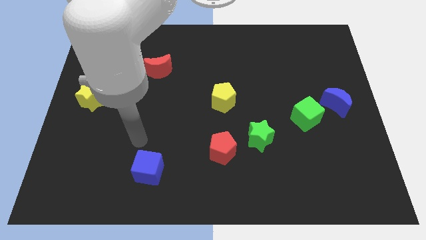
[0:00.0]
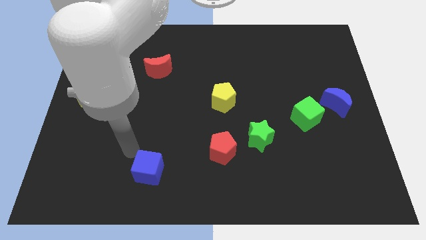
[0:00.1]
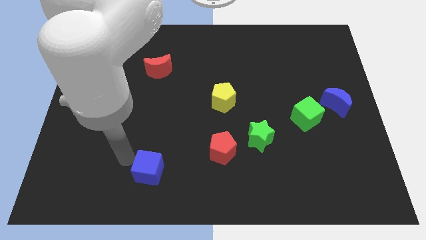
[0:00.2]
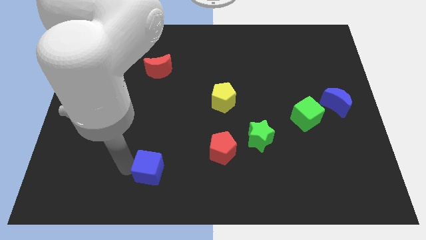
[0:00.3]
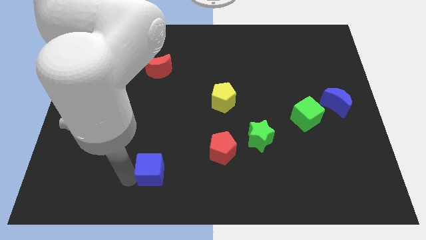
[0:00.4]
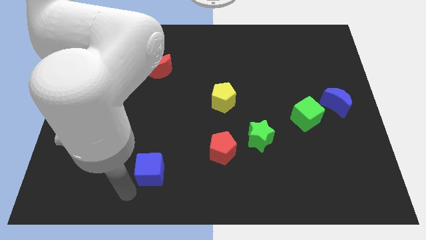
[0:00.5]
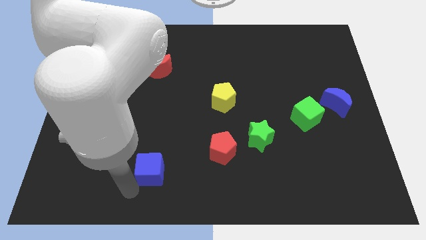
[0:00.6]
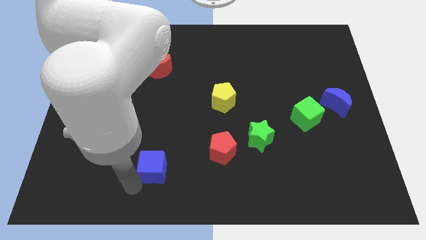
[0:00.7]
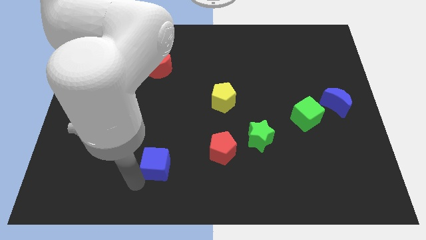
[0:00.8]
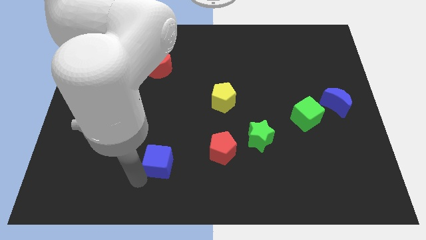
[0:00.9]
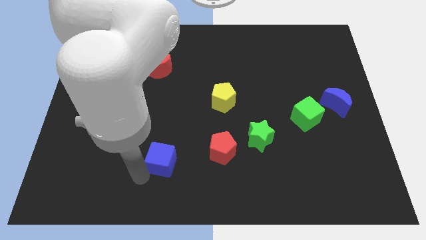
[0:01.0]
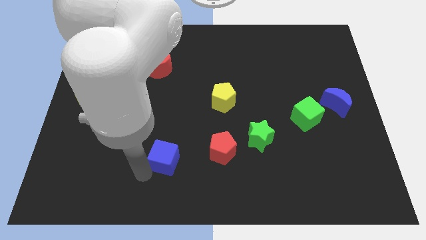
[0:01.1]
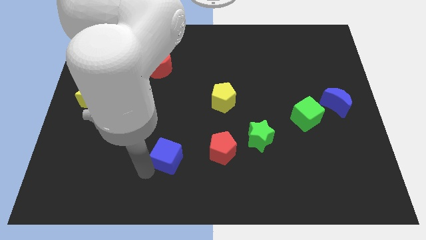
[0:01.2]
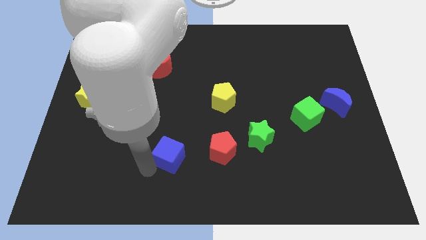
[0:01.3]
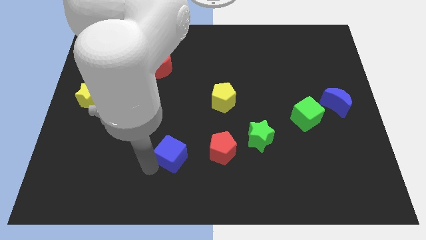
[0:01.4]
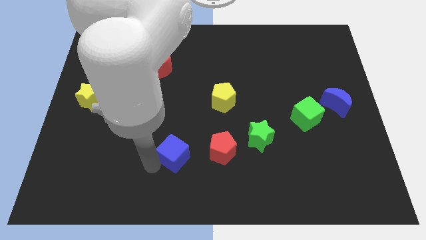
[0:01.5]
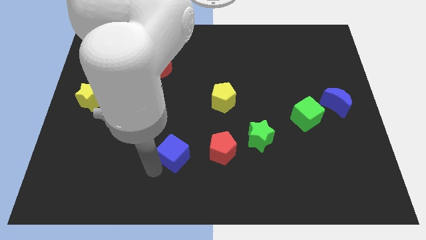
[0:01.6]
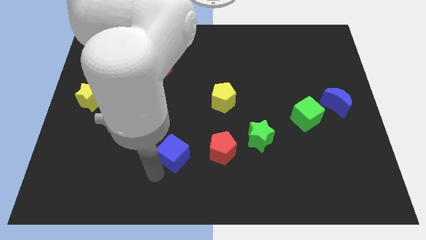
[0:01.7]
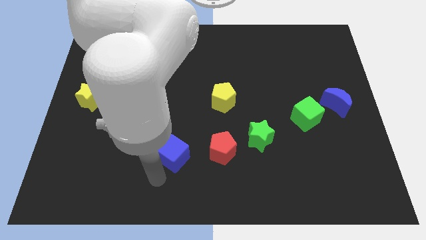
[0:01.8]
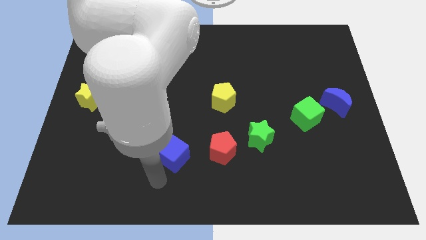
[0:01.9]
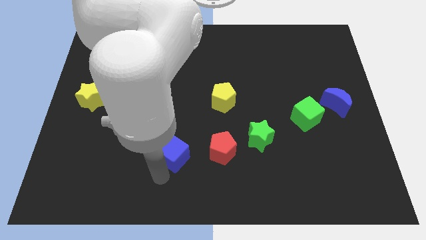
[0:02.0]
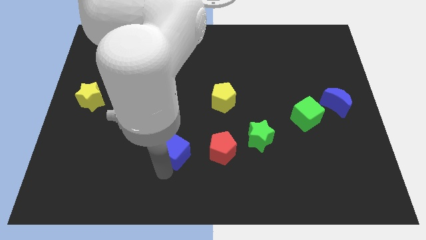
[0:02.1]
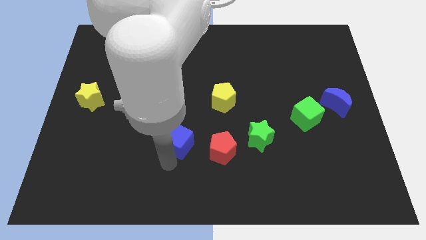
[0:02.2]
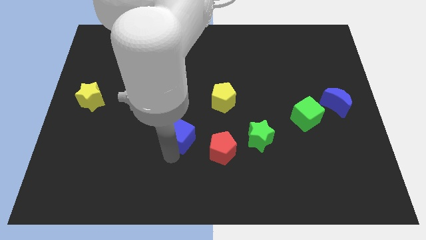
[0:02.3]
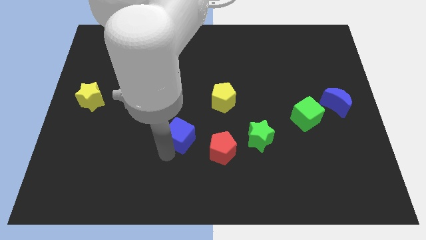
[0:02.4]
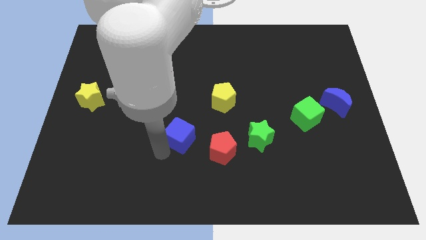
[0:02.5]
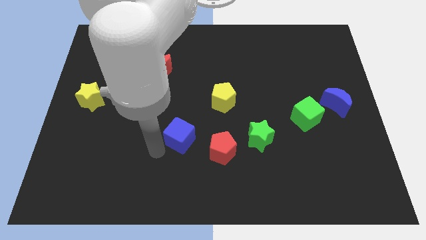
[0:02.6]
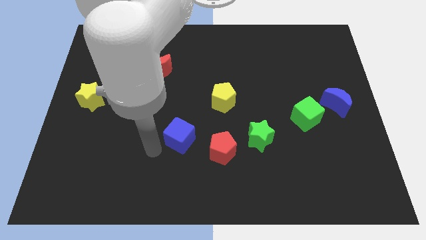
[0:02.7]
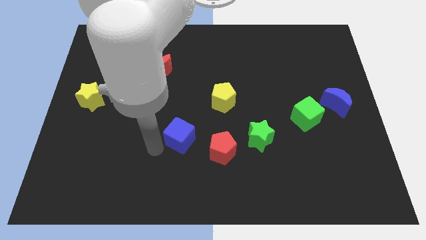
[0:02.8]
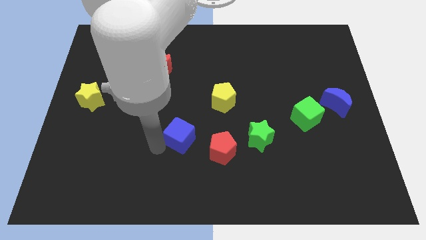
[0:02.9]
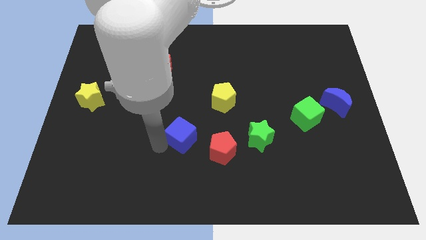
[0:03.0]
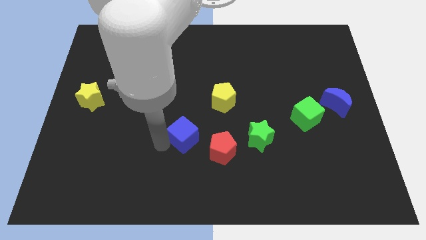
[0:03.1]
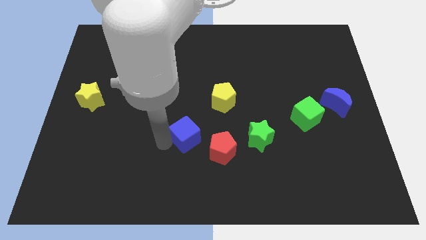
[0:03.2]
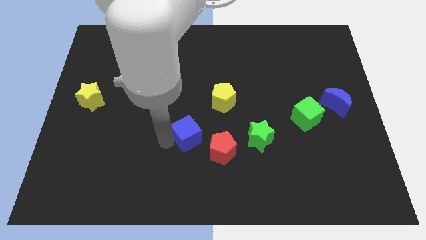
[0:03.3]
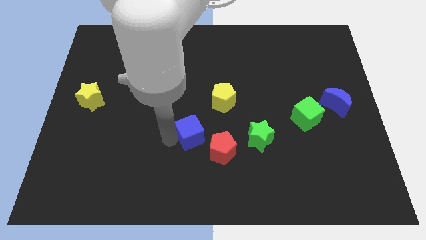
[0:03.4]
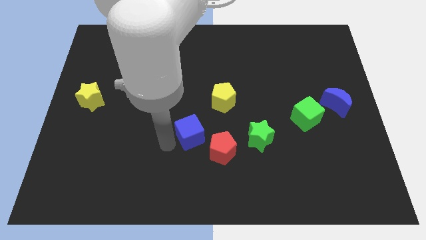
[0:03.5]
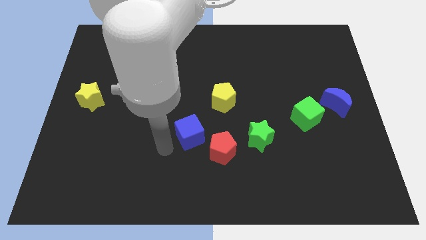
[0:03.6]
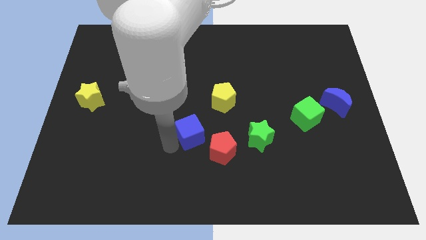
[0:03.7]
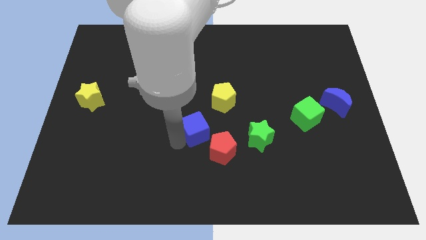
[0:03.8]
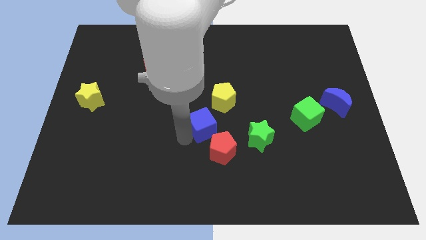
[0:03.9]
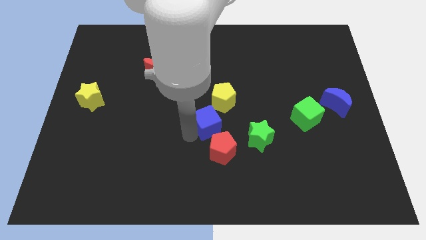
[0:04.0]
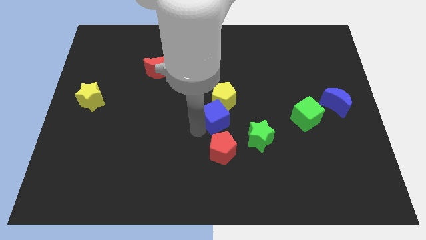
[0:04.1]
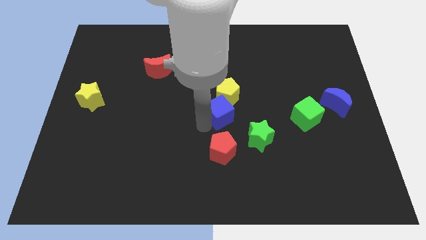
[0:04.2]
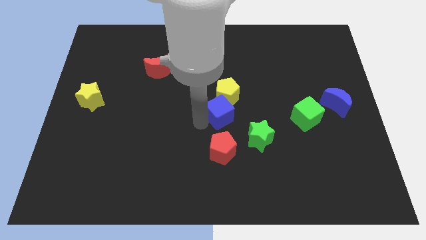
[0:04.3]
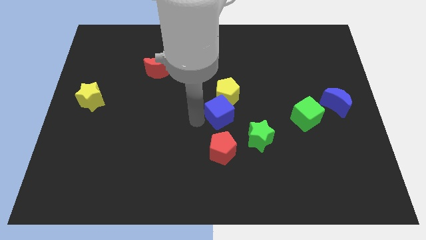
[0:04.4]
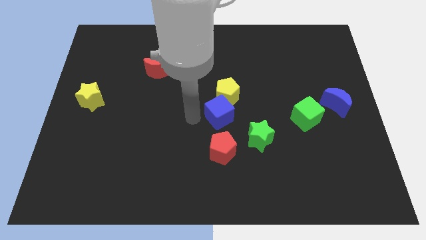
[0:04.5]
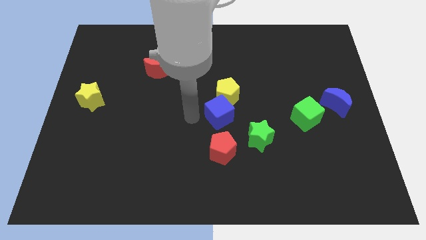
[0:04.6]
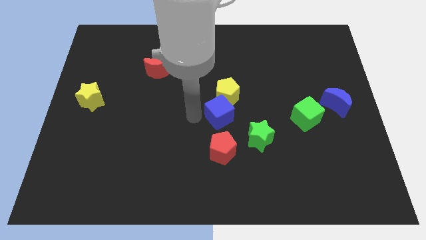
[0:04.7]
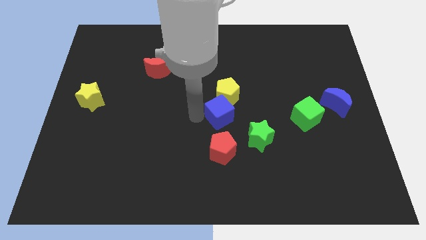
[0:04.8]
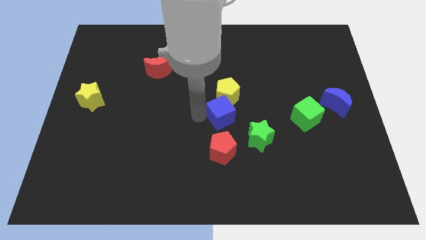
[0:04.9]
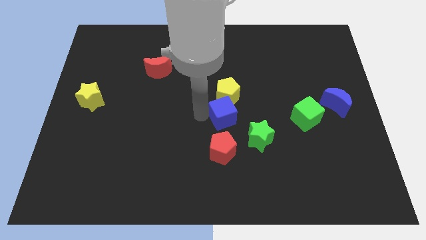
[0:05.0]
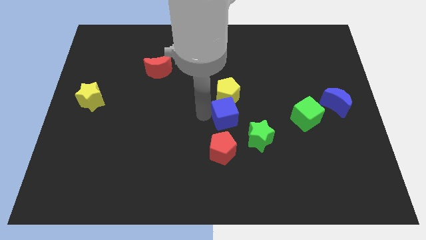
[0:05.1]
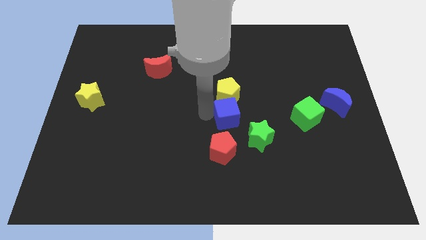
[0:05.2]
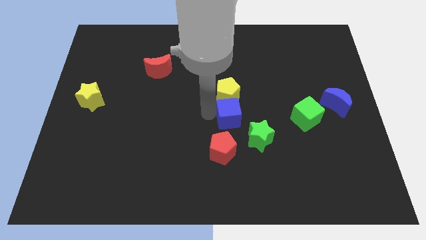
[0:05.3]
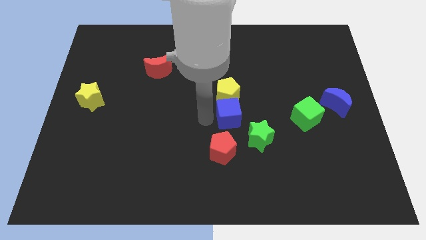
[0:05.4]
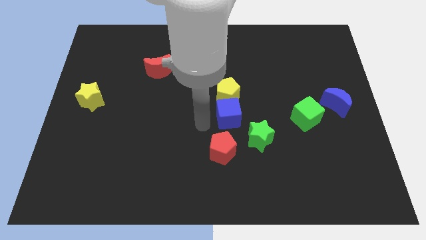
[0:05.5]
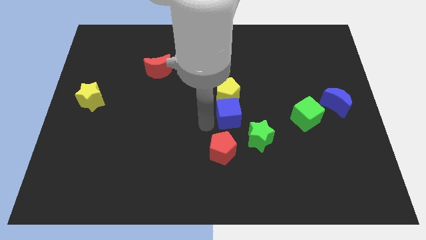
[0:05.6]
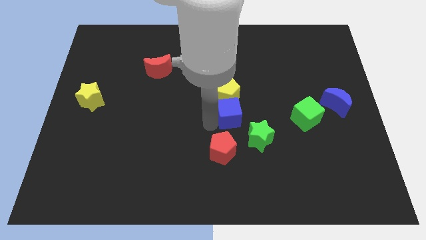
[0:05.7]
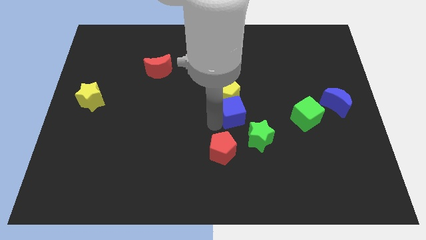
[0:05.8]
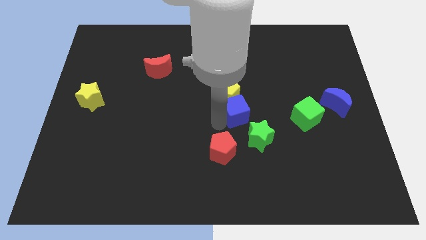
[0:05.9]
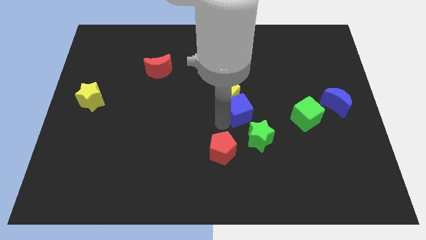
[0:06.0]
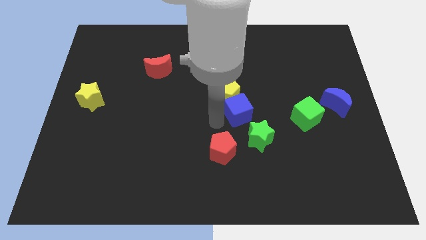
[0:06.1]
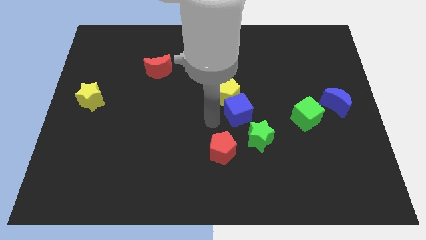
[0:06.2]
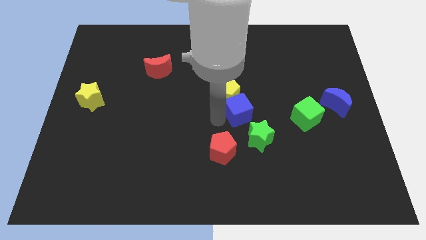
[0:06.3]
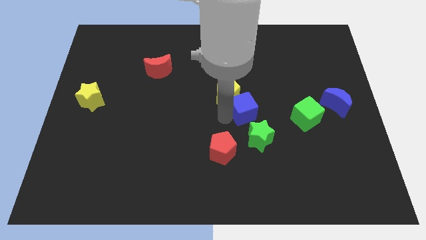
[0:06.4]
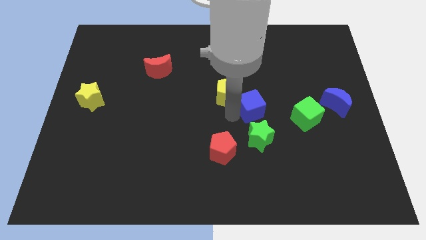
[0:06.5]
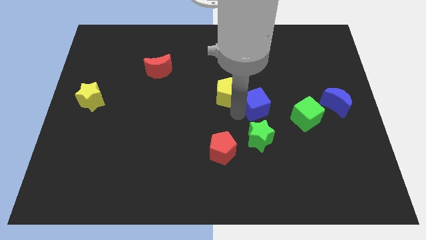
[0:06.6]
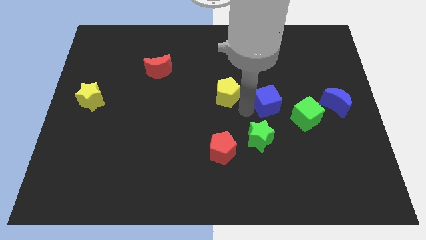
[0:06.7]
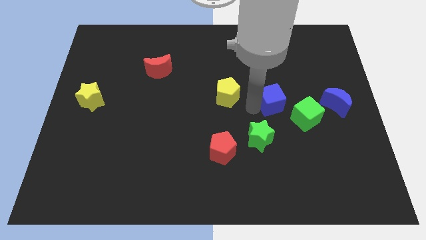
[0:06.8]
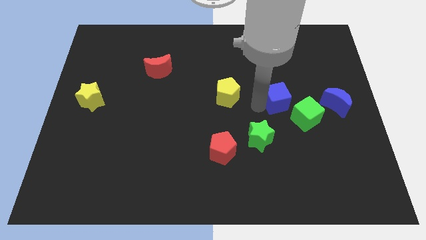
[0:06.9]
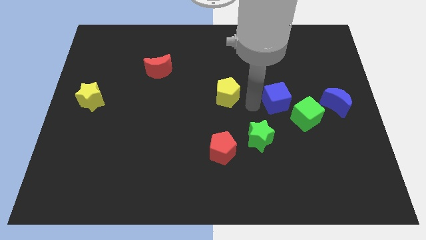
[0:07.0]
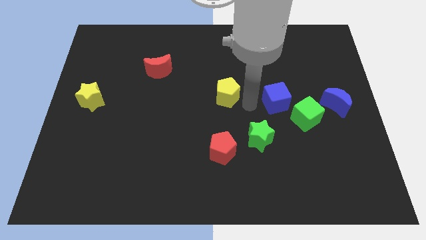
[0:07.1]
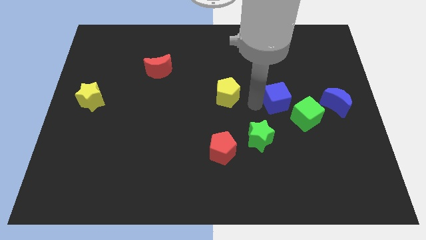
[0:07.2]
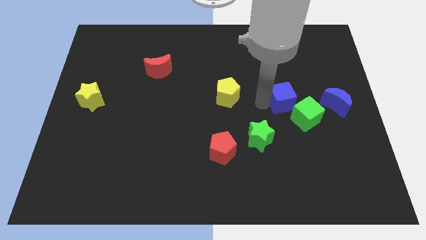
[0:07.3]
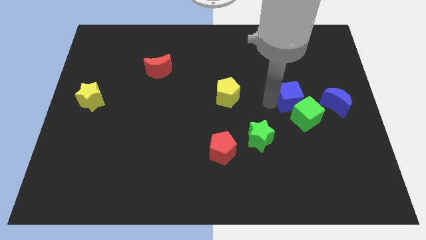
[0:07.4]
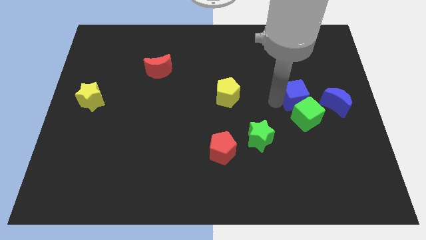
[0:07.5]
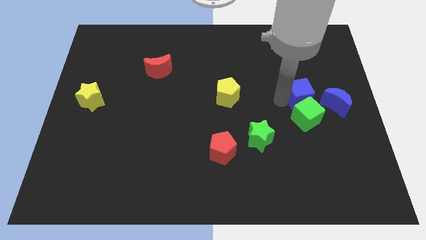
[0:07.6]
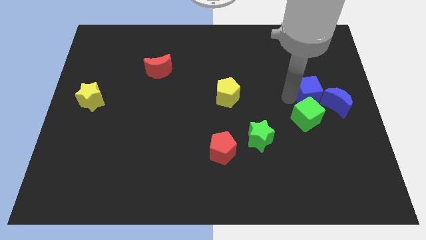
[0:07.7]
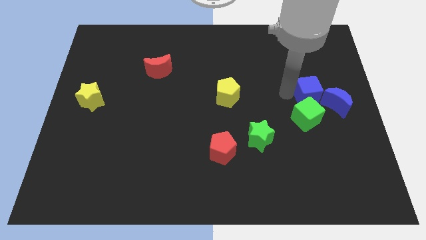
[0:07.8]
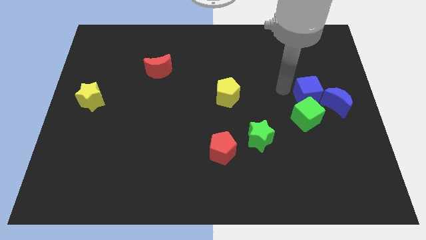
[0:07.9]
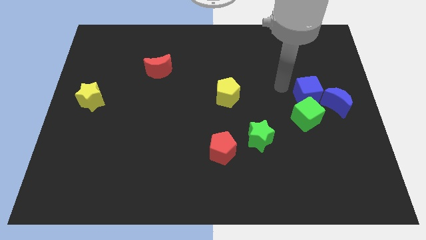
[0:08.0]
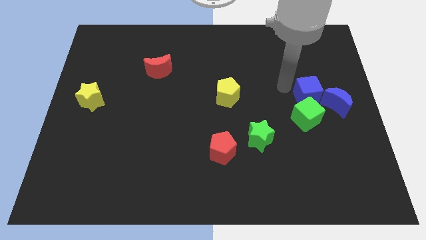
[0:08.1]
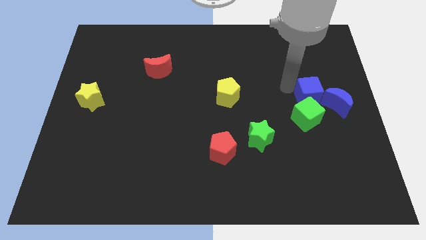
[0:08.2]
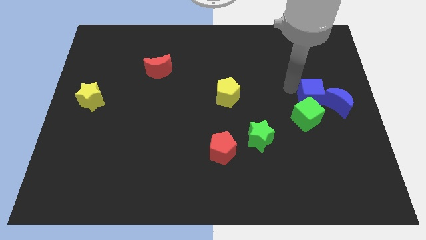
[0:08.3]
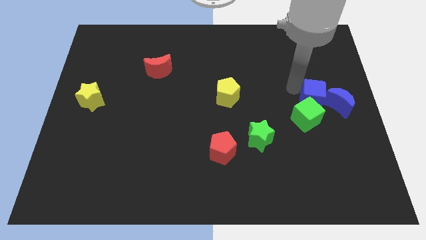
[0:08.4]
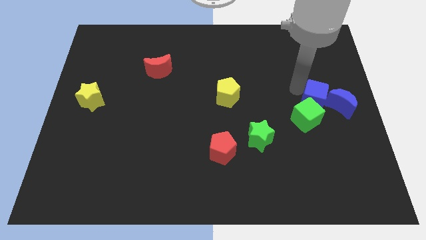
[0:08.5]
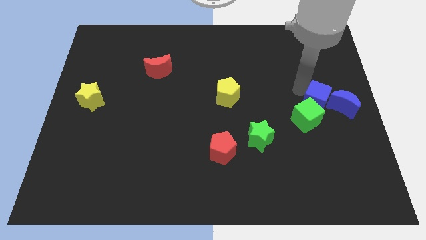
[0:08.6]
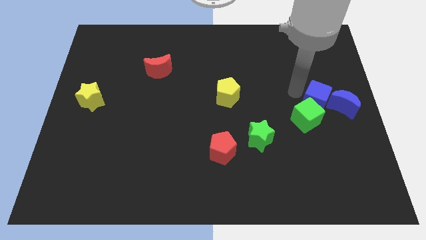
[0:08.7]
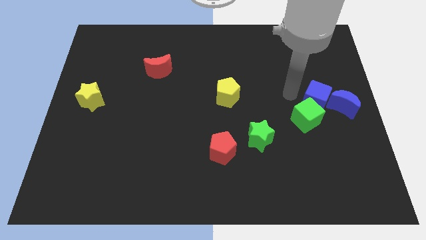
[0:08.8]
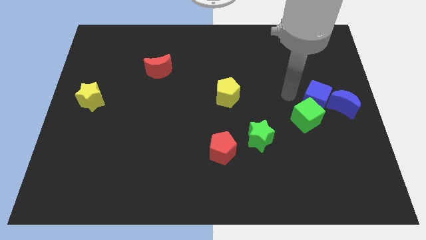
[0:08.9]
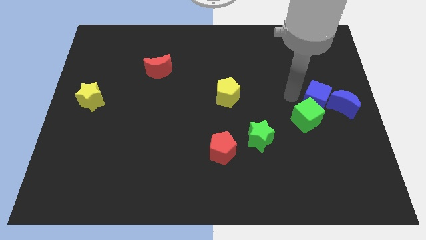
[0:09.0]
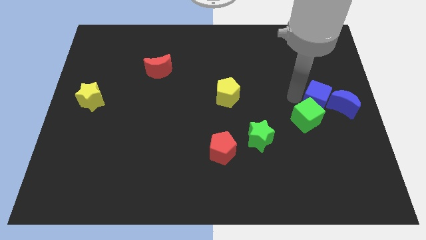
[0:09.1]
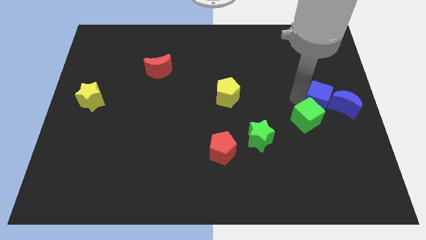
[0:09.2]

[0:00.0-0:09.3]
move the blue cube next to the blue moon
